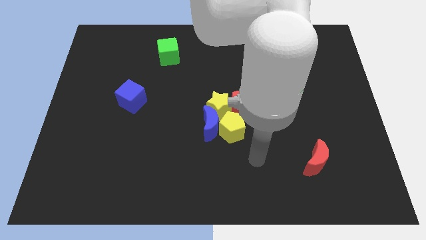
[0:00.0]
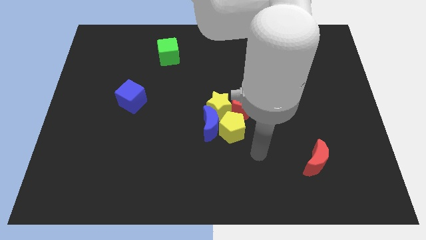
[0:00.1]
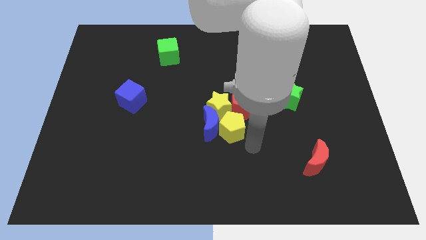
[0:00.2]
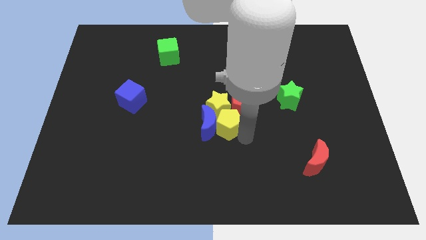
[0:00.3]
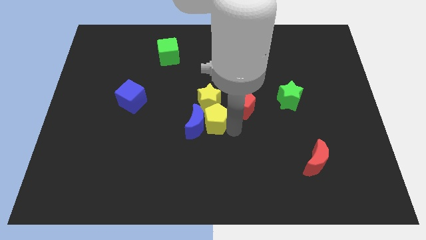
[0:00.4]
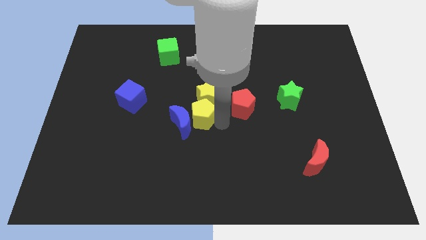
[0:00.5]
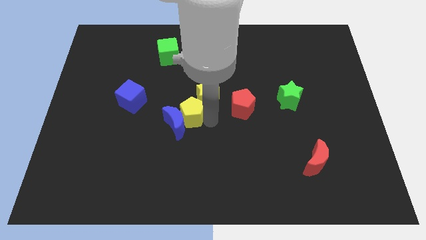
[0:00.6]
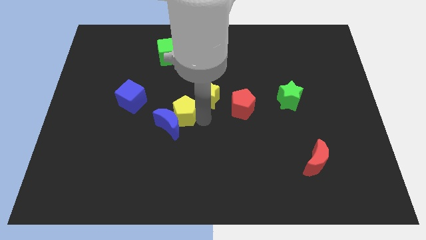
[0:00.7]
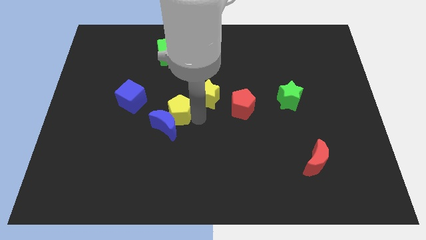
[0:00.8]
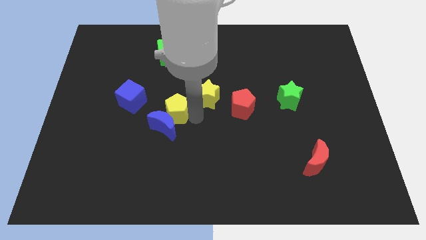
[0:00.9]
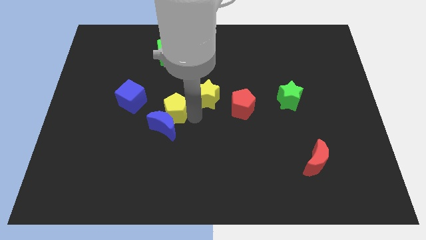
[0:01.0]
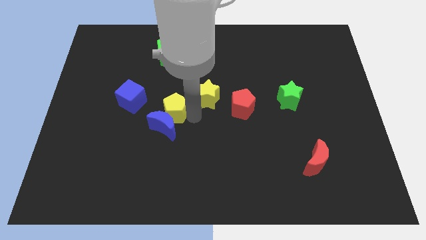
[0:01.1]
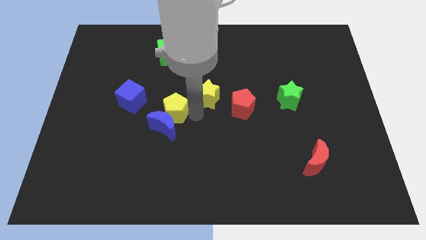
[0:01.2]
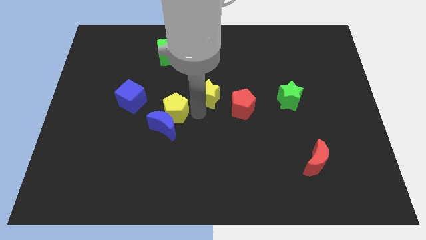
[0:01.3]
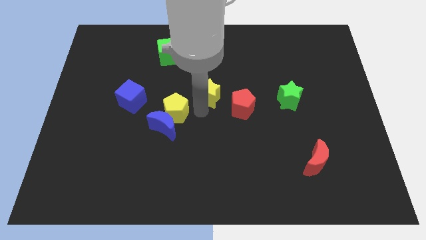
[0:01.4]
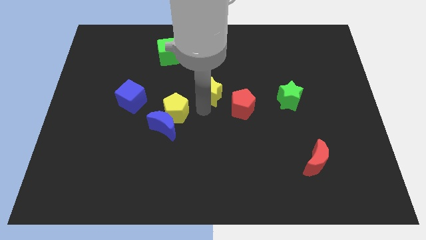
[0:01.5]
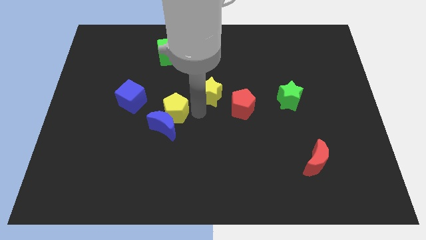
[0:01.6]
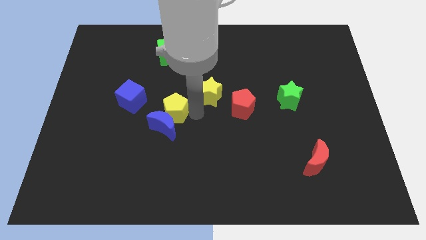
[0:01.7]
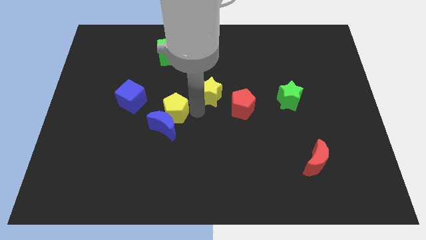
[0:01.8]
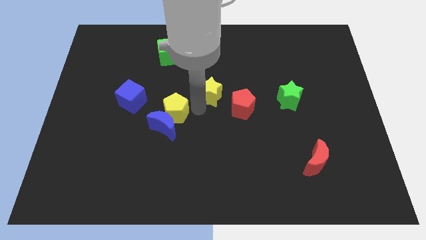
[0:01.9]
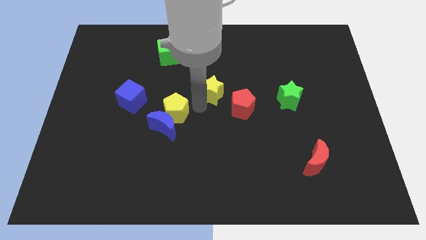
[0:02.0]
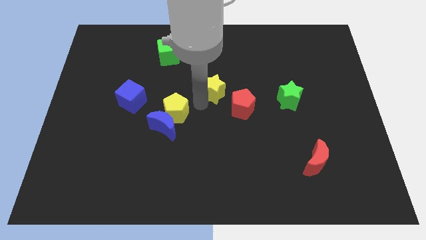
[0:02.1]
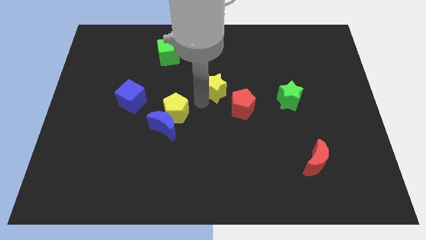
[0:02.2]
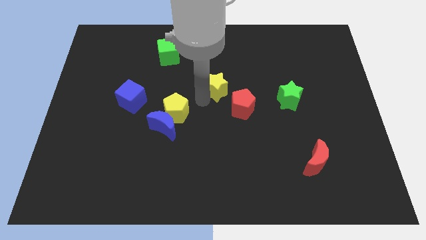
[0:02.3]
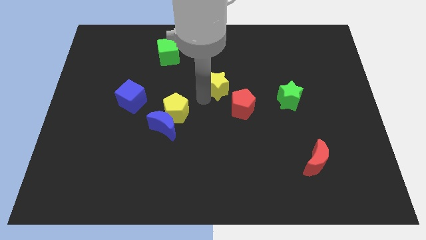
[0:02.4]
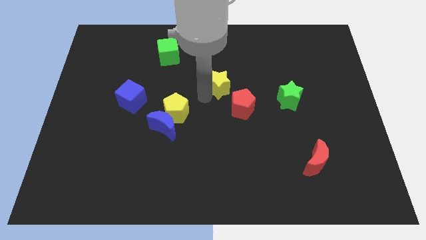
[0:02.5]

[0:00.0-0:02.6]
separate the yellow star from the clump

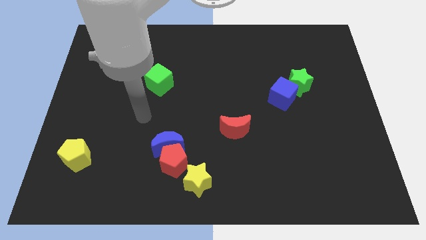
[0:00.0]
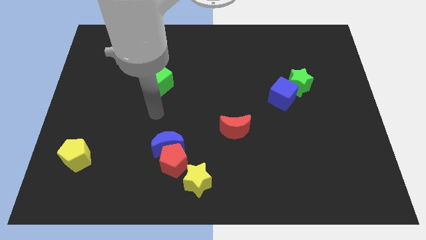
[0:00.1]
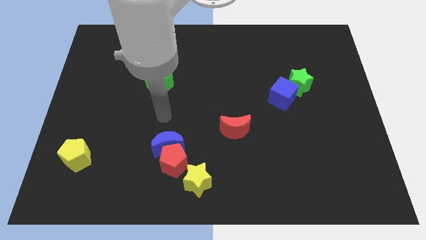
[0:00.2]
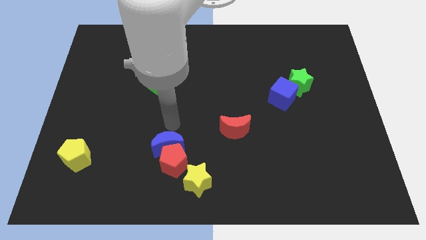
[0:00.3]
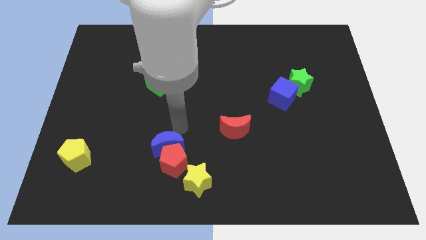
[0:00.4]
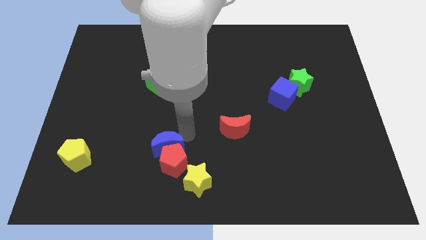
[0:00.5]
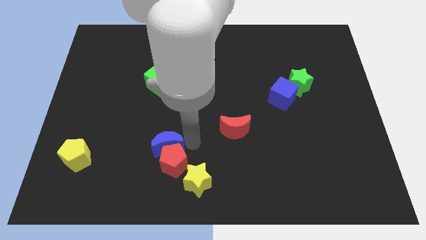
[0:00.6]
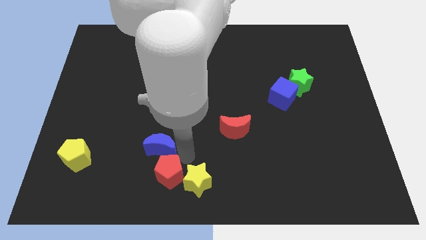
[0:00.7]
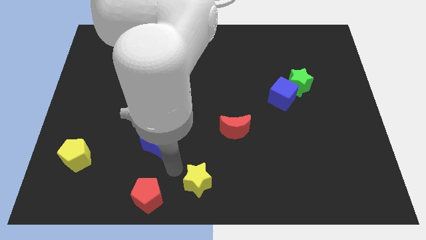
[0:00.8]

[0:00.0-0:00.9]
move the blue moon away from the red pentagon

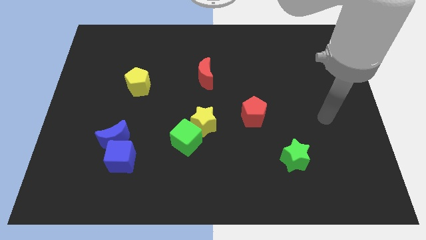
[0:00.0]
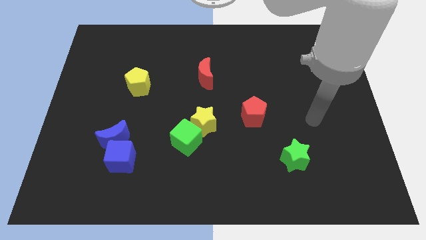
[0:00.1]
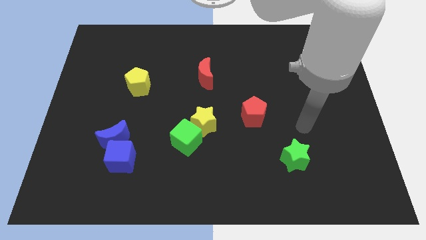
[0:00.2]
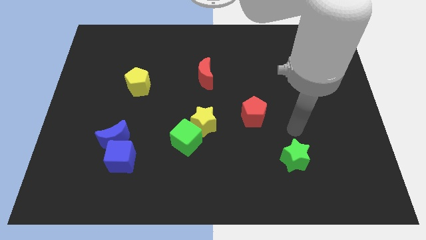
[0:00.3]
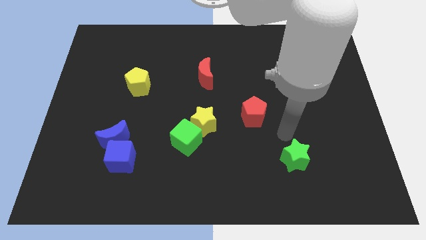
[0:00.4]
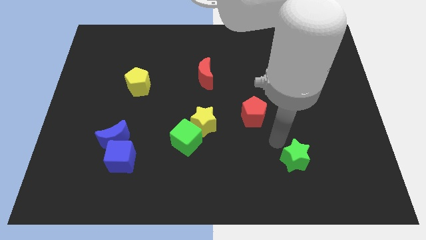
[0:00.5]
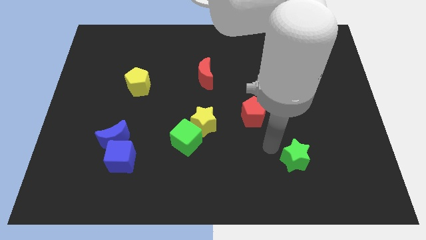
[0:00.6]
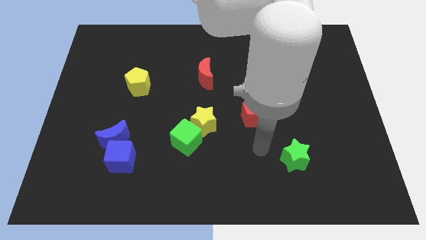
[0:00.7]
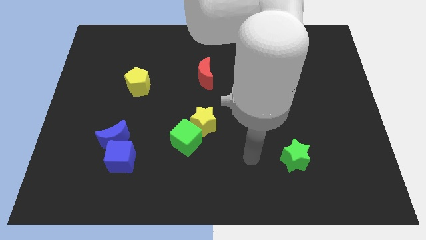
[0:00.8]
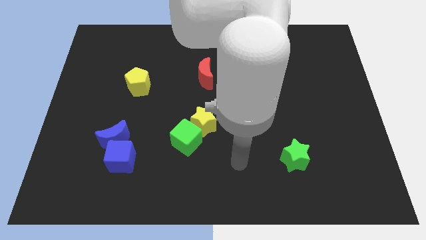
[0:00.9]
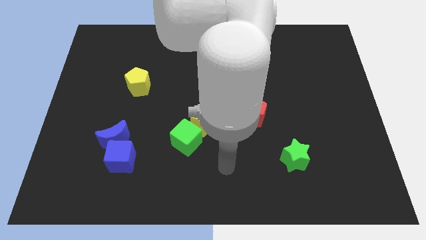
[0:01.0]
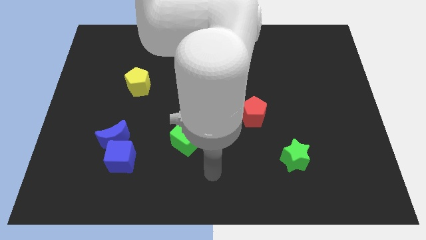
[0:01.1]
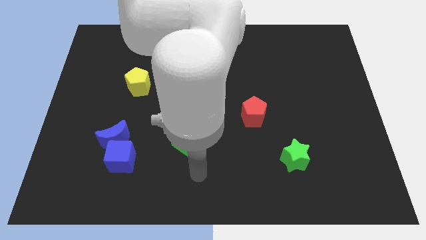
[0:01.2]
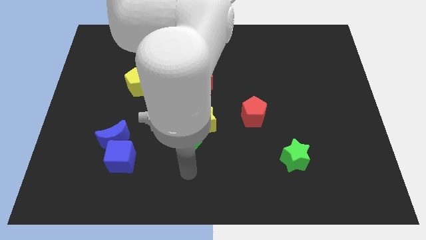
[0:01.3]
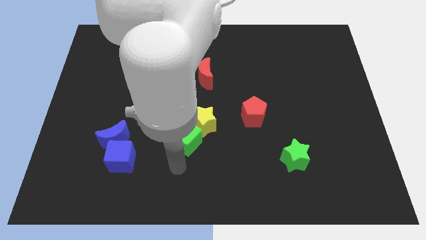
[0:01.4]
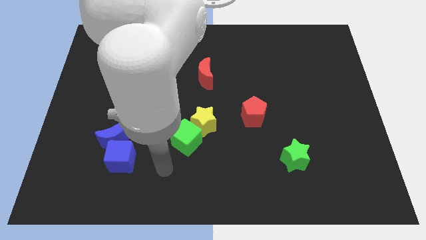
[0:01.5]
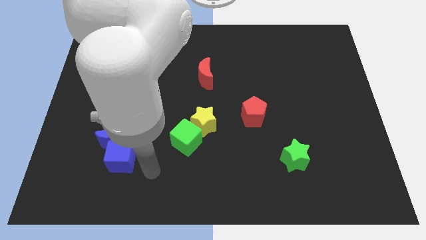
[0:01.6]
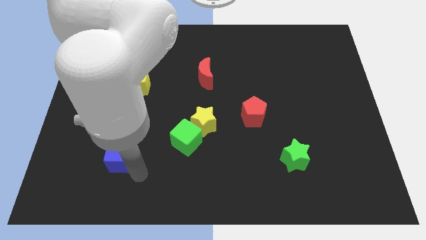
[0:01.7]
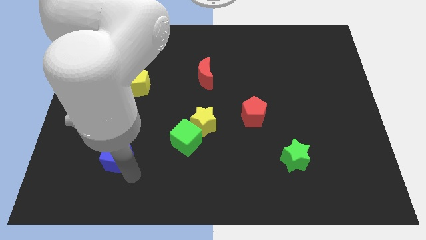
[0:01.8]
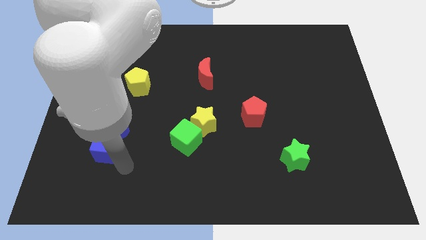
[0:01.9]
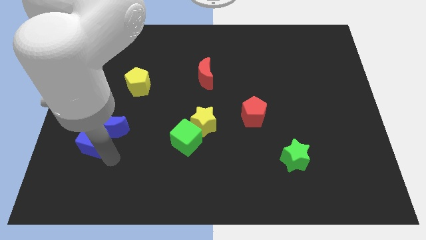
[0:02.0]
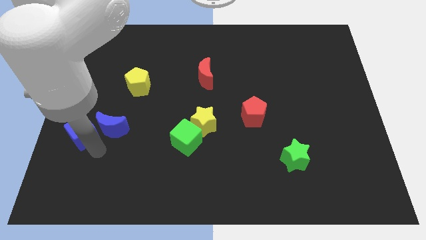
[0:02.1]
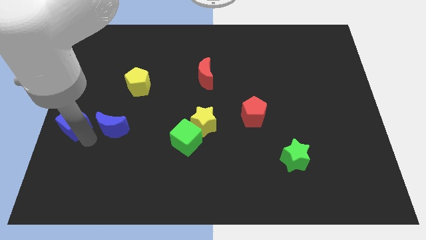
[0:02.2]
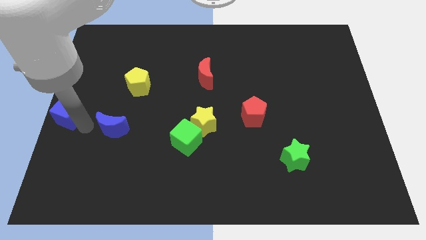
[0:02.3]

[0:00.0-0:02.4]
move the blue moon away from the blue cube

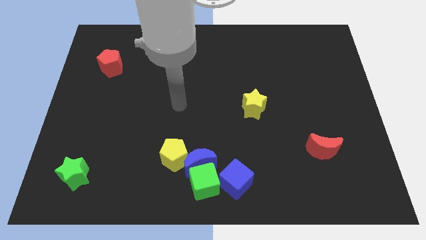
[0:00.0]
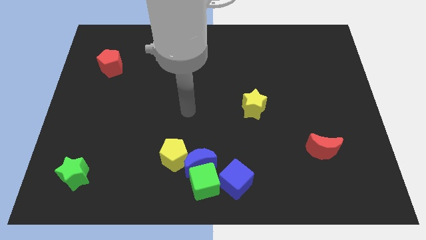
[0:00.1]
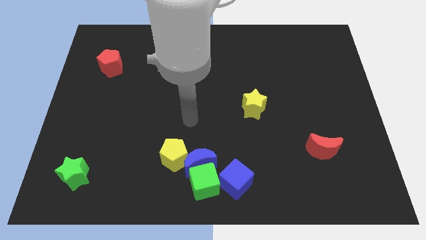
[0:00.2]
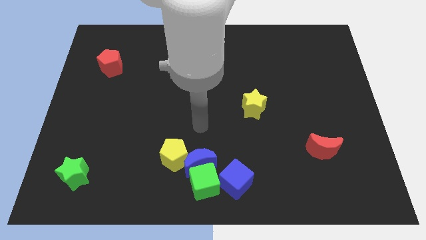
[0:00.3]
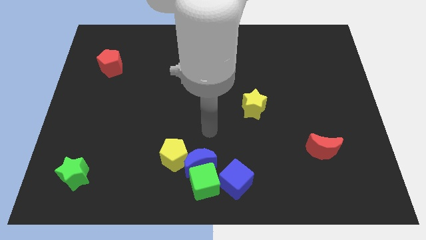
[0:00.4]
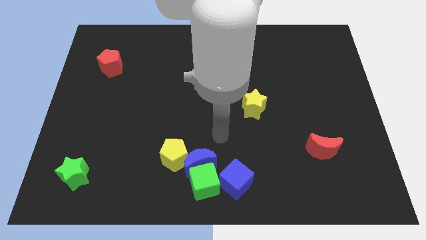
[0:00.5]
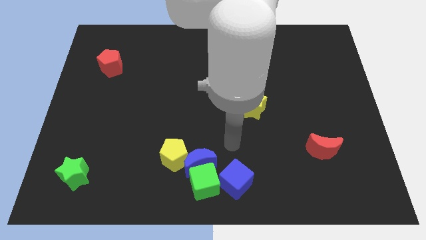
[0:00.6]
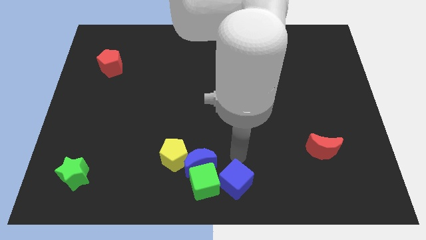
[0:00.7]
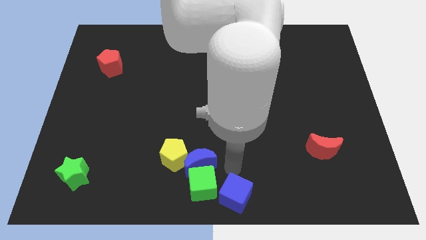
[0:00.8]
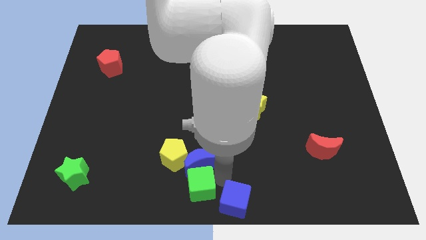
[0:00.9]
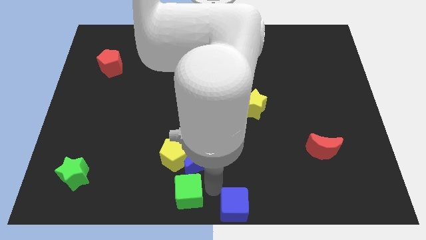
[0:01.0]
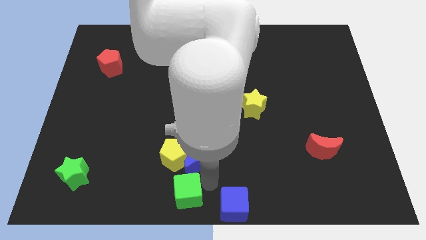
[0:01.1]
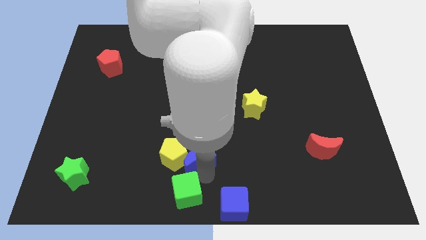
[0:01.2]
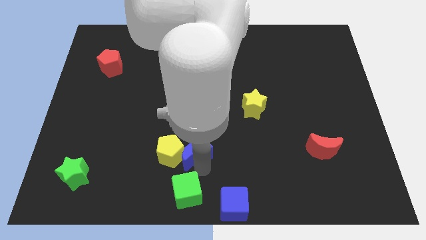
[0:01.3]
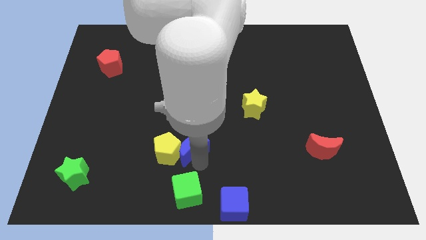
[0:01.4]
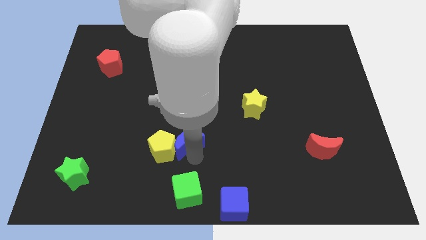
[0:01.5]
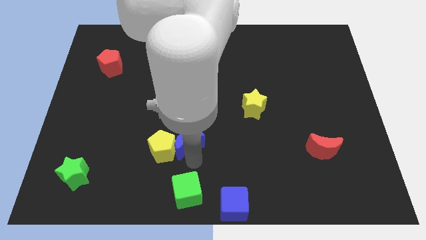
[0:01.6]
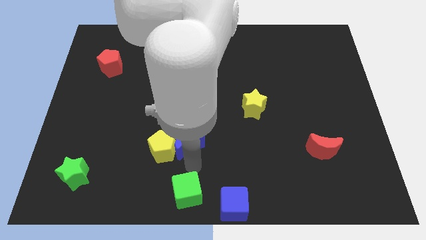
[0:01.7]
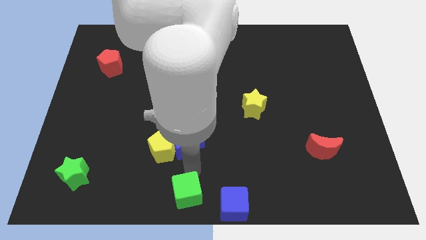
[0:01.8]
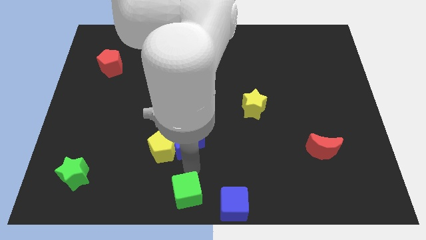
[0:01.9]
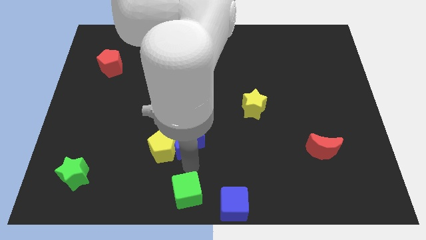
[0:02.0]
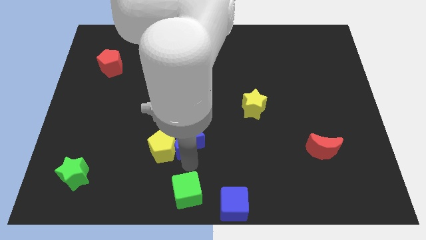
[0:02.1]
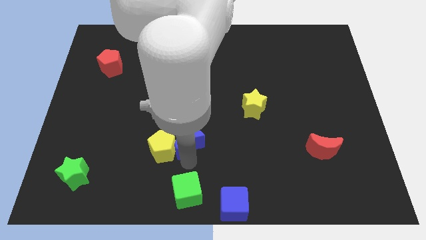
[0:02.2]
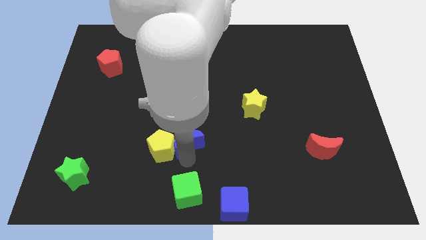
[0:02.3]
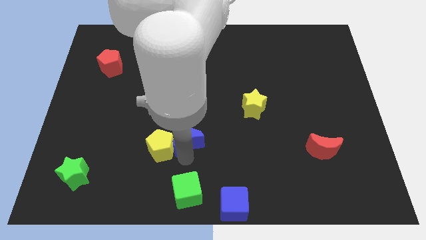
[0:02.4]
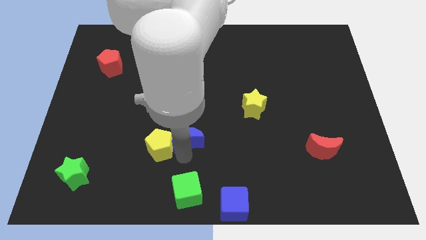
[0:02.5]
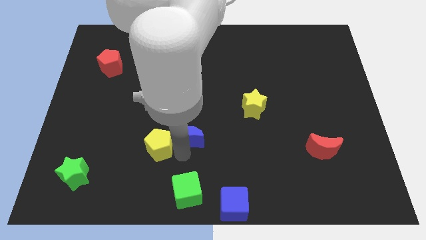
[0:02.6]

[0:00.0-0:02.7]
pull the blue moon apart from the clump

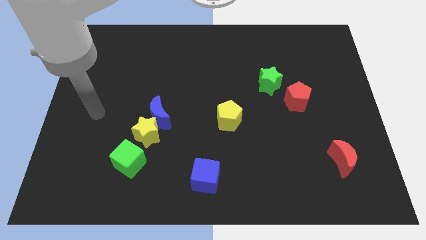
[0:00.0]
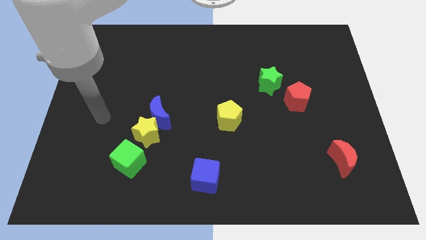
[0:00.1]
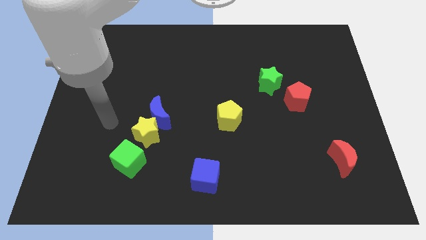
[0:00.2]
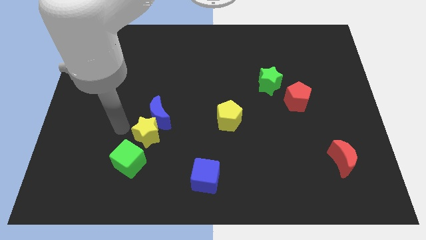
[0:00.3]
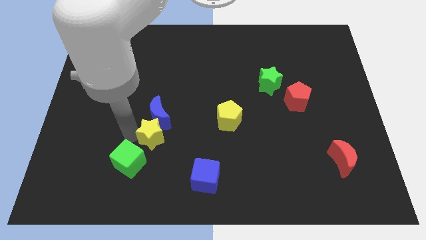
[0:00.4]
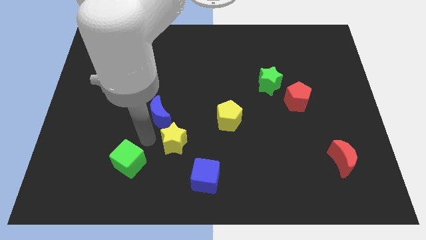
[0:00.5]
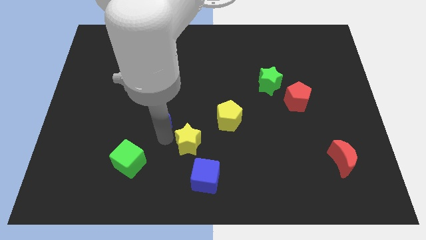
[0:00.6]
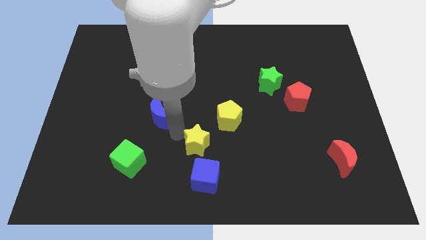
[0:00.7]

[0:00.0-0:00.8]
pull the blue moon apart from the yellow star
